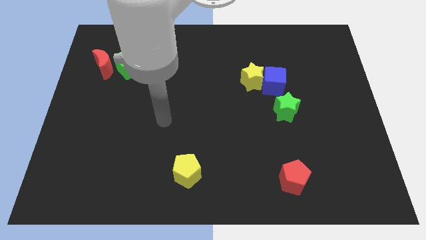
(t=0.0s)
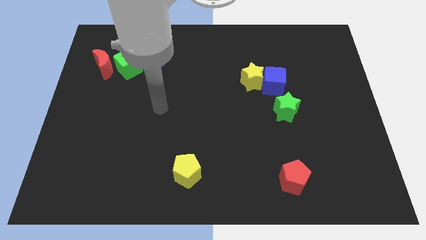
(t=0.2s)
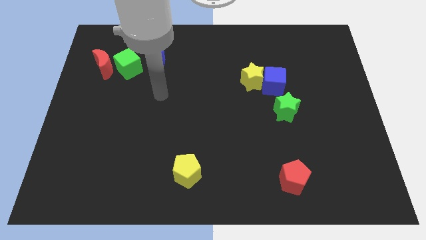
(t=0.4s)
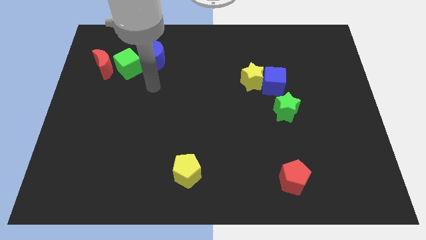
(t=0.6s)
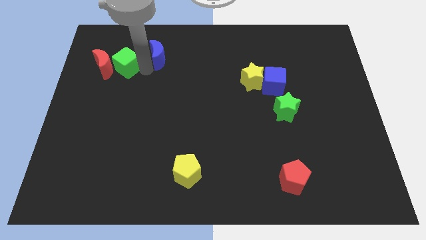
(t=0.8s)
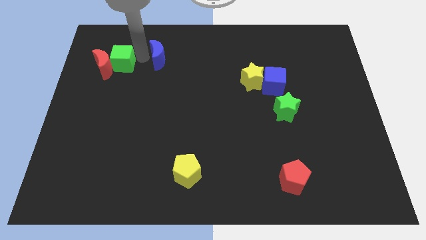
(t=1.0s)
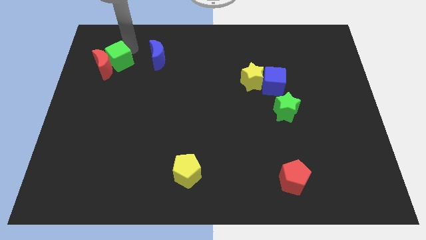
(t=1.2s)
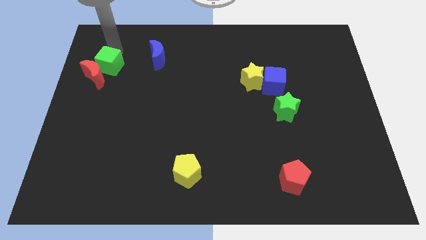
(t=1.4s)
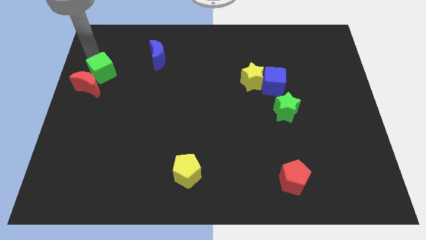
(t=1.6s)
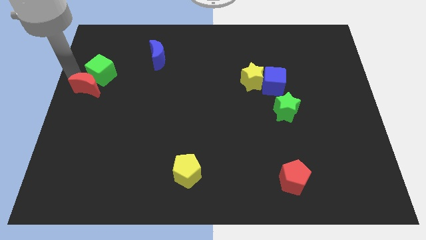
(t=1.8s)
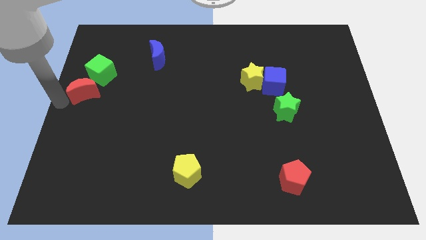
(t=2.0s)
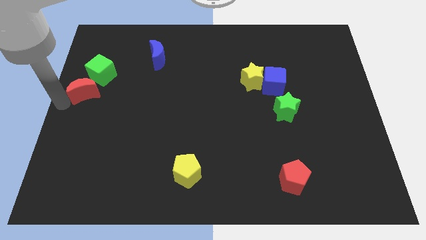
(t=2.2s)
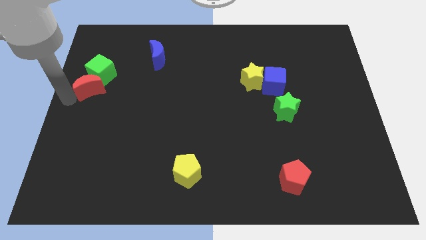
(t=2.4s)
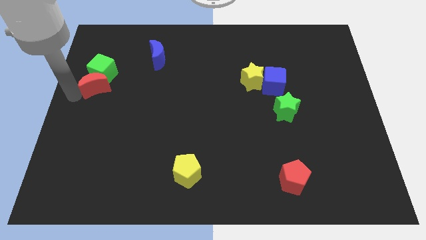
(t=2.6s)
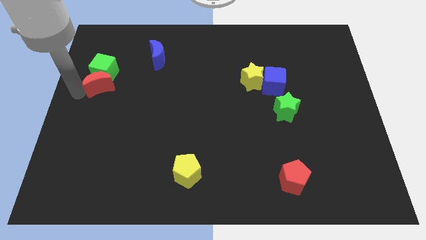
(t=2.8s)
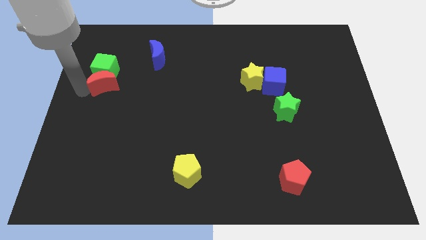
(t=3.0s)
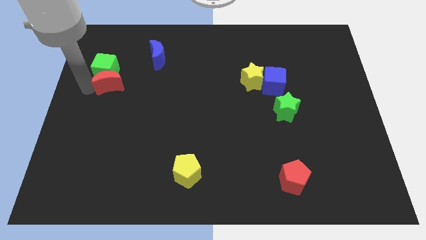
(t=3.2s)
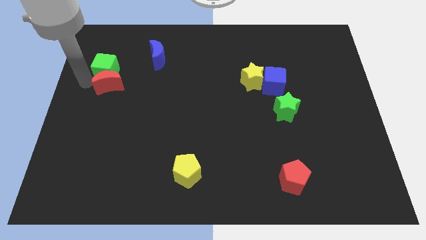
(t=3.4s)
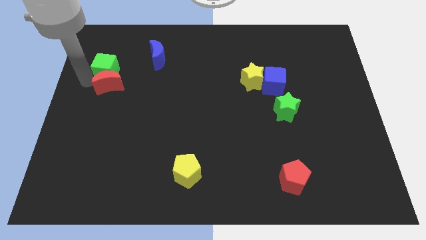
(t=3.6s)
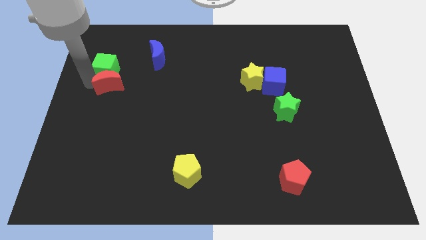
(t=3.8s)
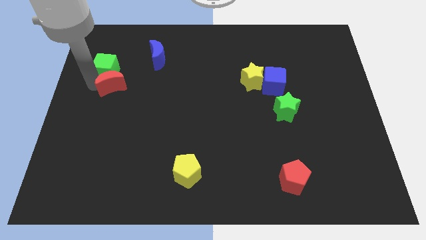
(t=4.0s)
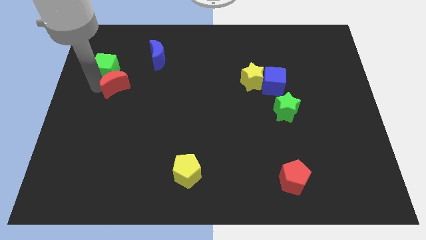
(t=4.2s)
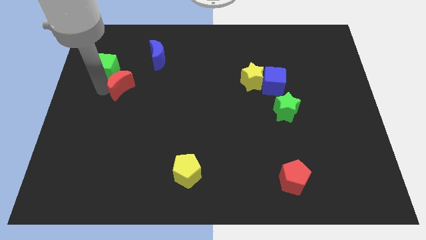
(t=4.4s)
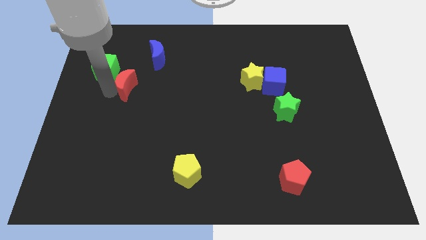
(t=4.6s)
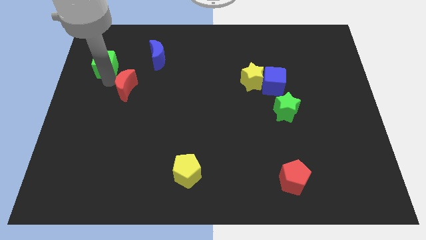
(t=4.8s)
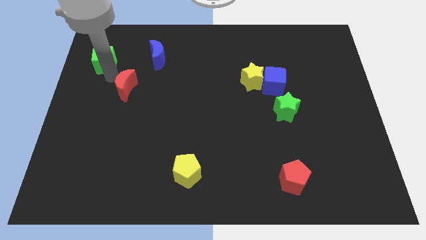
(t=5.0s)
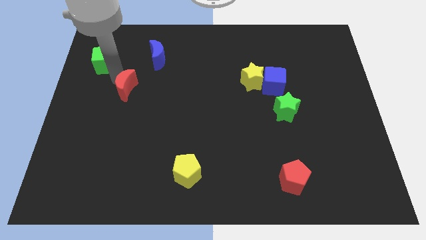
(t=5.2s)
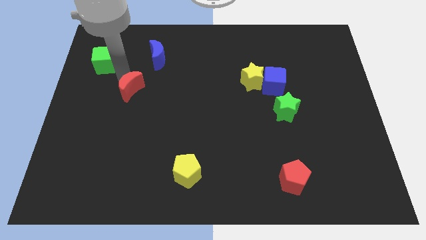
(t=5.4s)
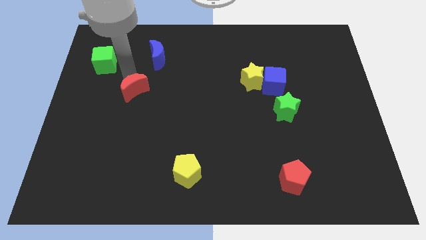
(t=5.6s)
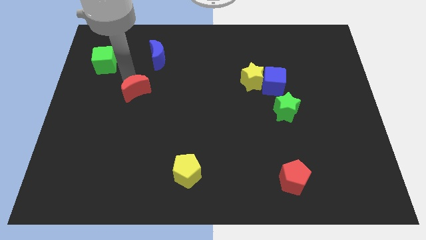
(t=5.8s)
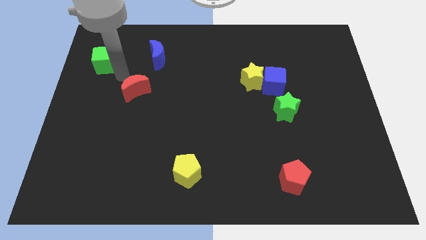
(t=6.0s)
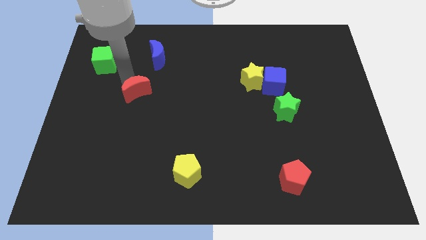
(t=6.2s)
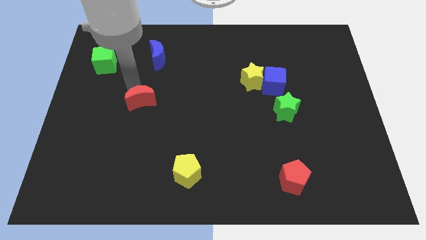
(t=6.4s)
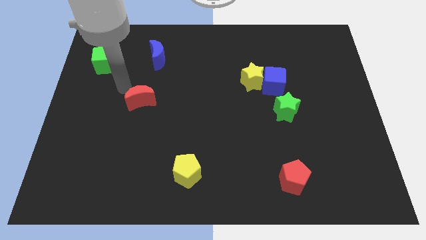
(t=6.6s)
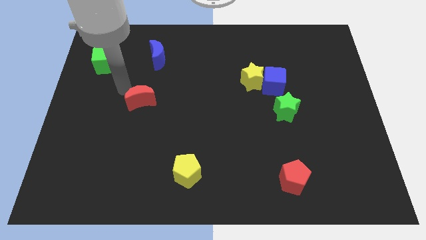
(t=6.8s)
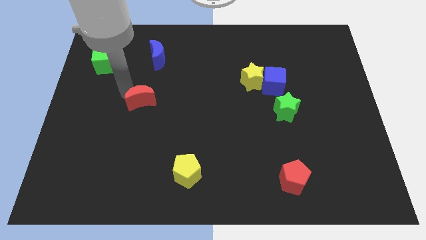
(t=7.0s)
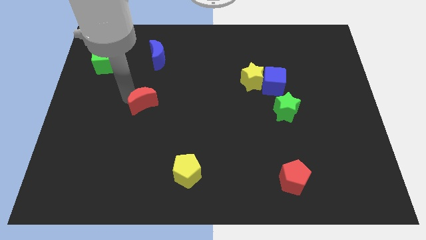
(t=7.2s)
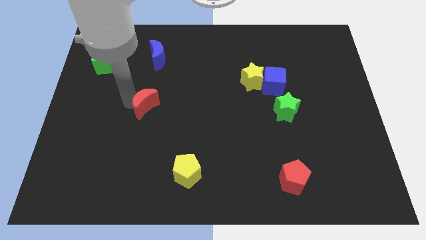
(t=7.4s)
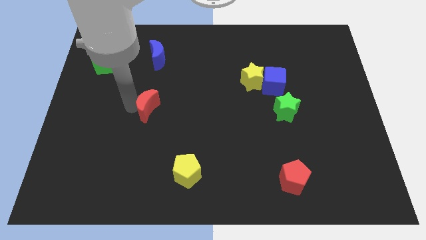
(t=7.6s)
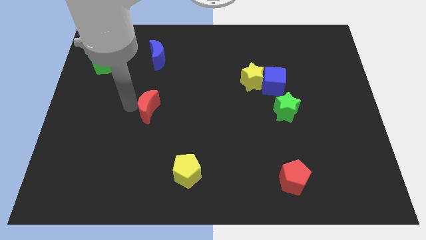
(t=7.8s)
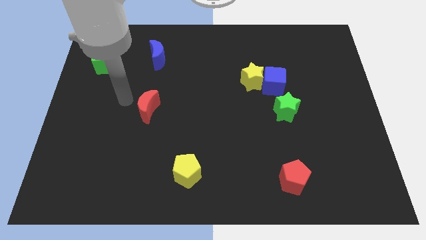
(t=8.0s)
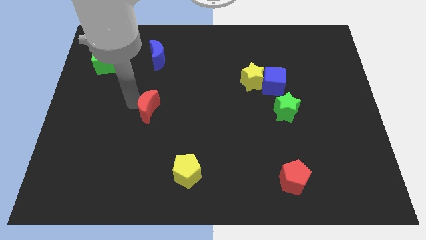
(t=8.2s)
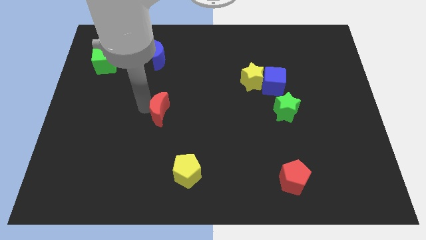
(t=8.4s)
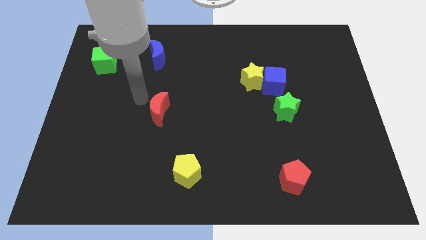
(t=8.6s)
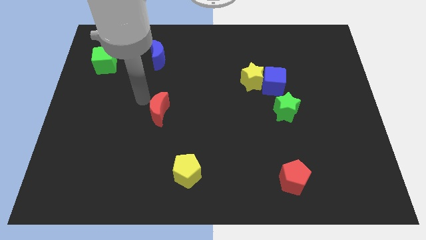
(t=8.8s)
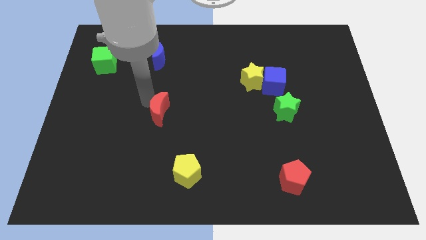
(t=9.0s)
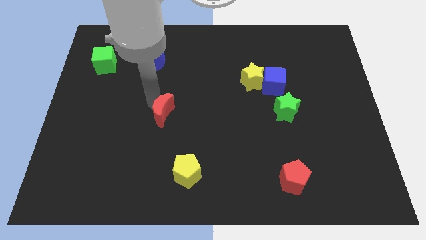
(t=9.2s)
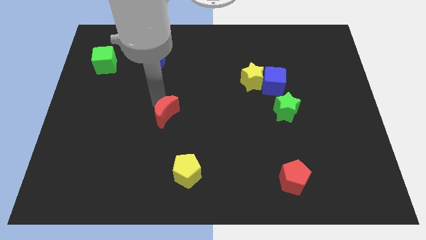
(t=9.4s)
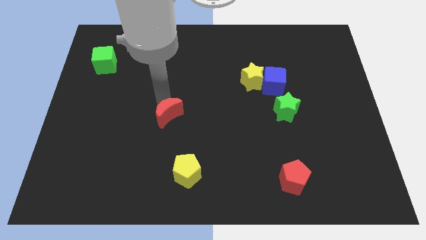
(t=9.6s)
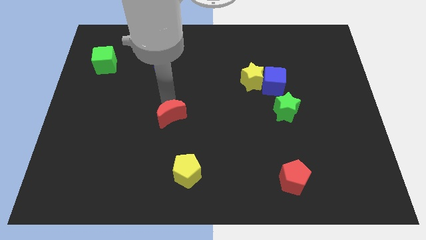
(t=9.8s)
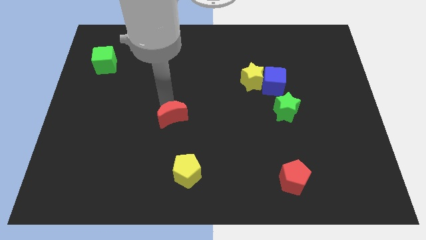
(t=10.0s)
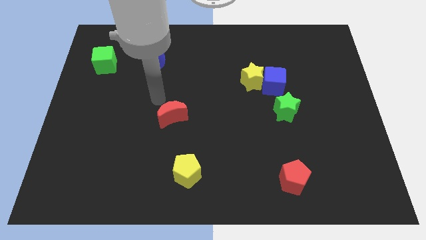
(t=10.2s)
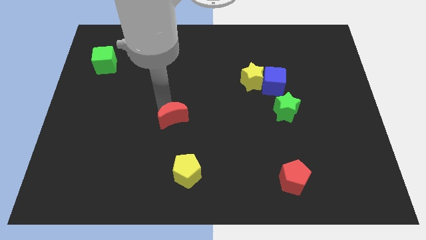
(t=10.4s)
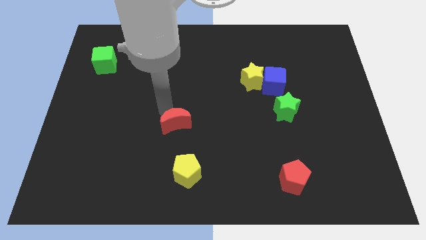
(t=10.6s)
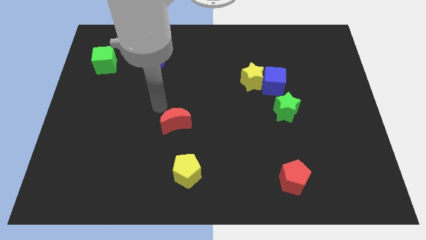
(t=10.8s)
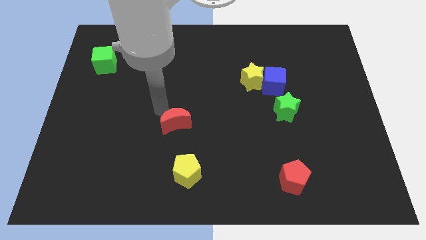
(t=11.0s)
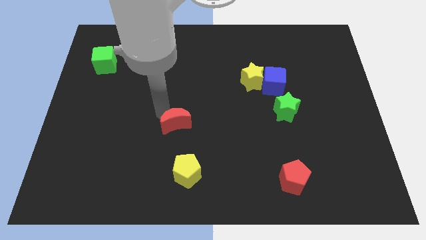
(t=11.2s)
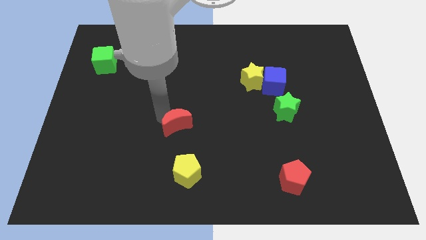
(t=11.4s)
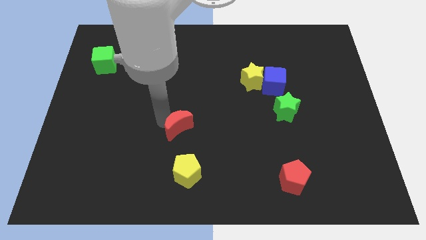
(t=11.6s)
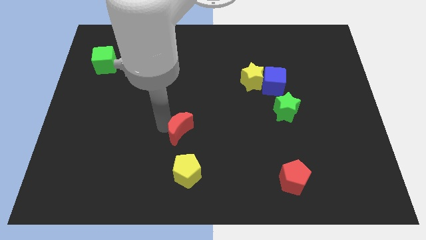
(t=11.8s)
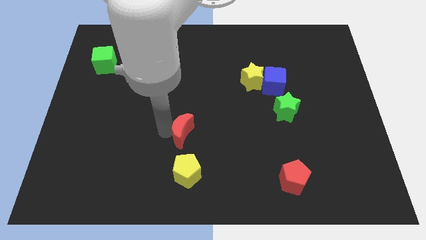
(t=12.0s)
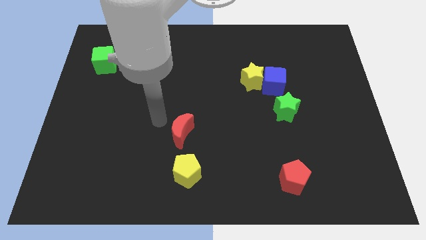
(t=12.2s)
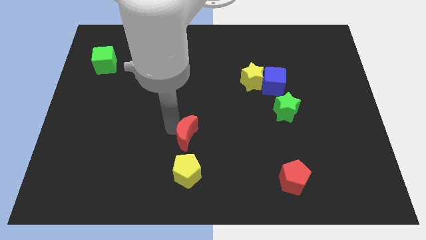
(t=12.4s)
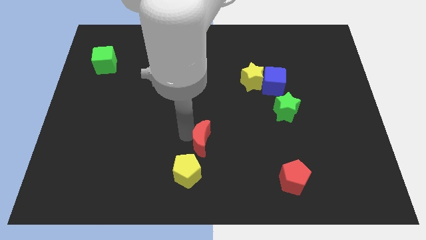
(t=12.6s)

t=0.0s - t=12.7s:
slide the red moon diagonally up and to the right of the yellow pentagon
